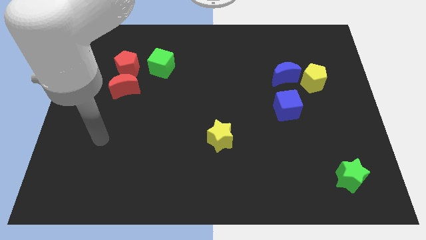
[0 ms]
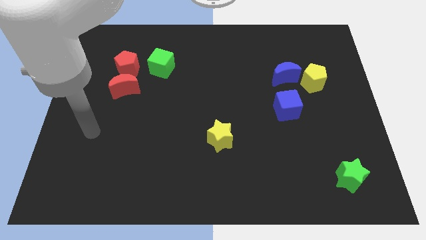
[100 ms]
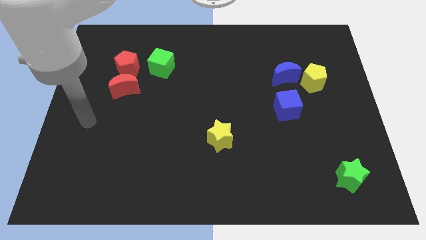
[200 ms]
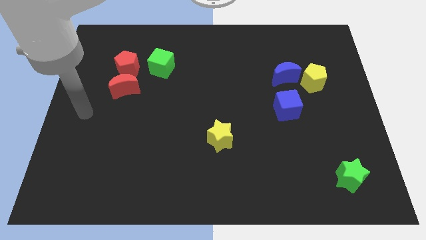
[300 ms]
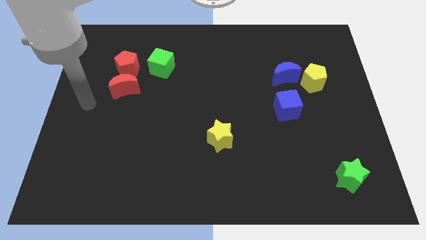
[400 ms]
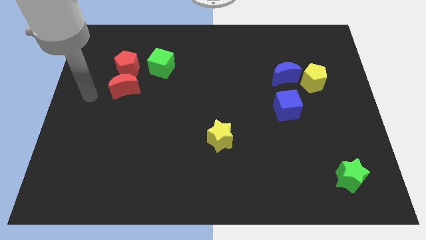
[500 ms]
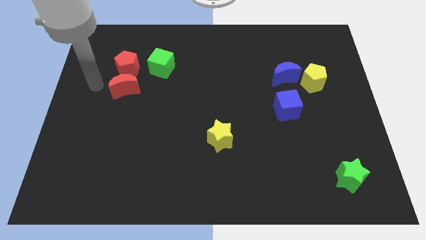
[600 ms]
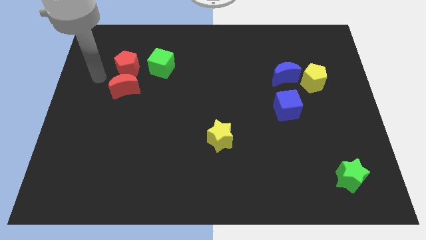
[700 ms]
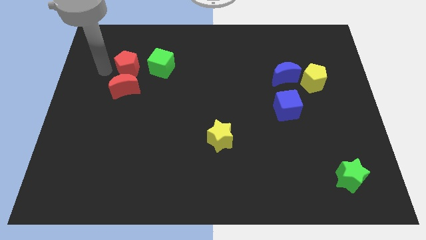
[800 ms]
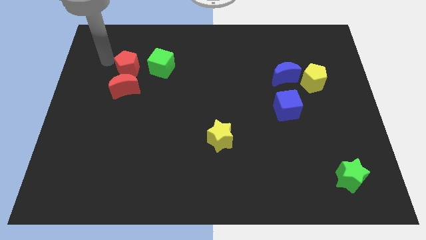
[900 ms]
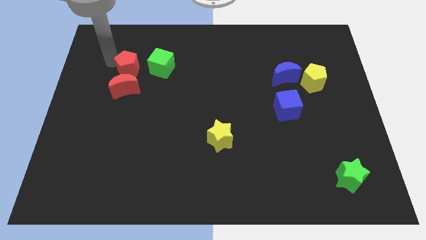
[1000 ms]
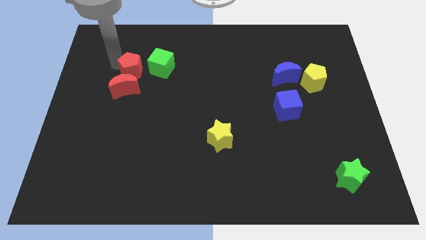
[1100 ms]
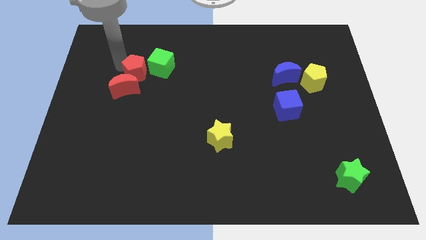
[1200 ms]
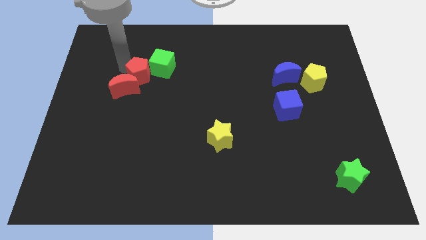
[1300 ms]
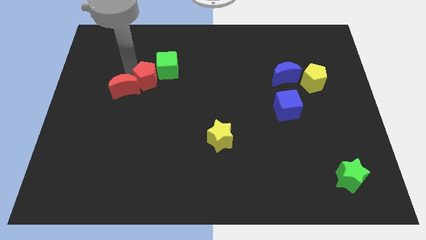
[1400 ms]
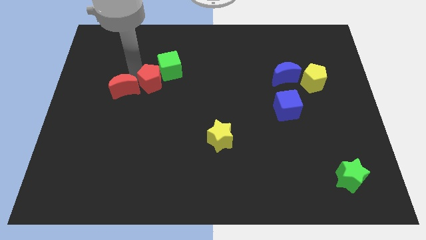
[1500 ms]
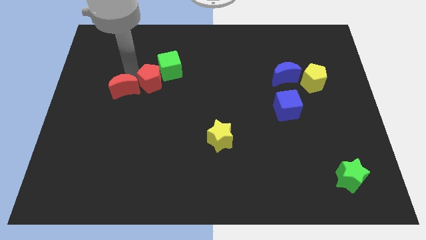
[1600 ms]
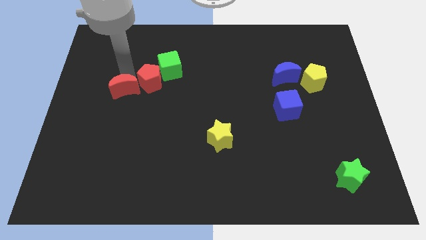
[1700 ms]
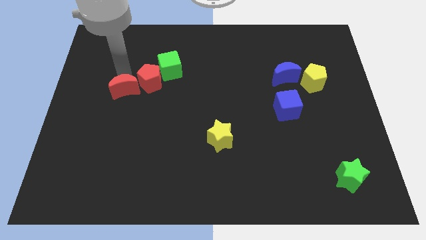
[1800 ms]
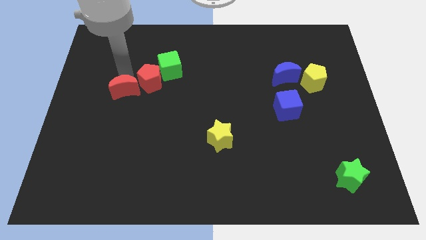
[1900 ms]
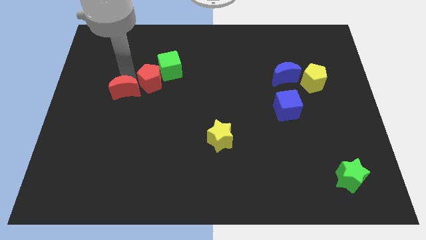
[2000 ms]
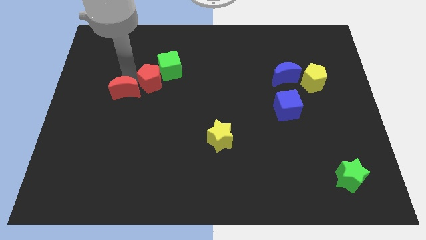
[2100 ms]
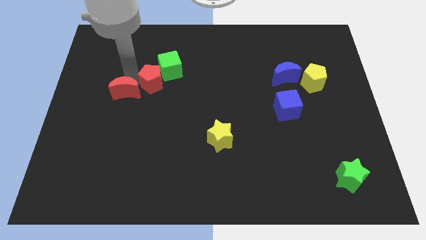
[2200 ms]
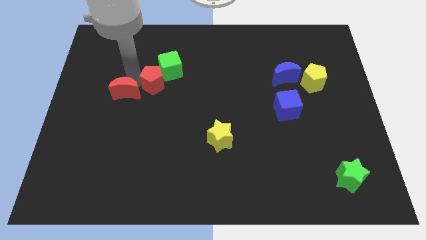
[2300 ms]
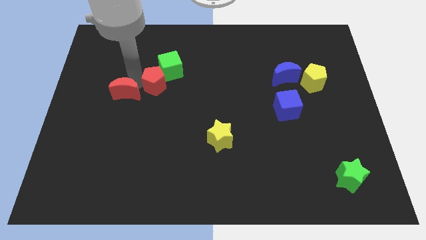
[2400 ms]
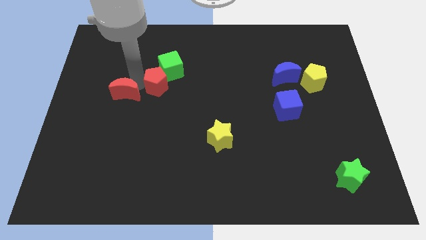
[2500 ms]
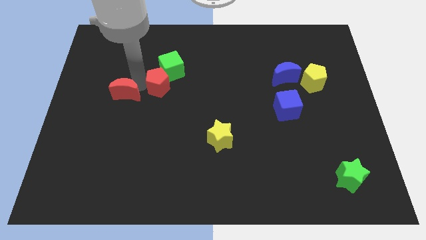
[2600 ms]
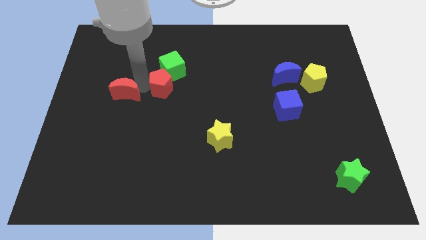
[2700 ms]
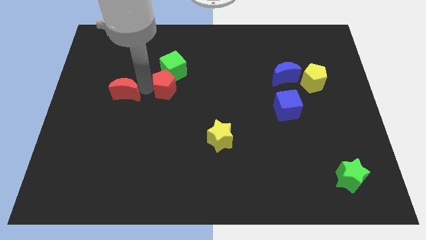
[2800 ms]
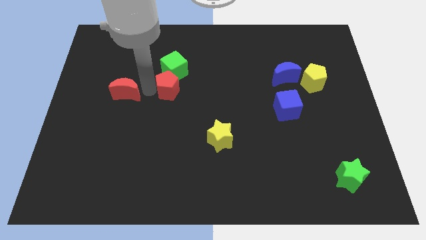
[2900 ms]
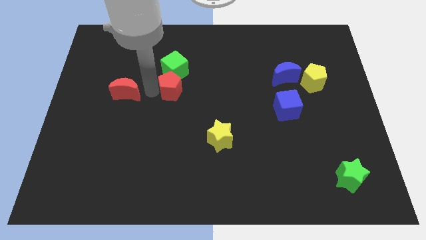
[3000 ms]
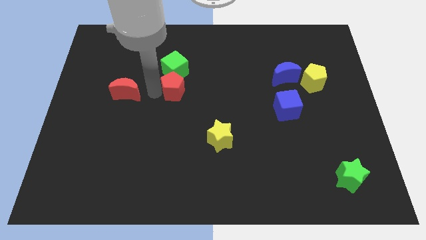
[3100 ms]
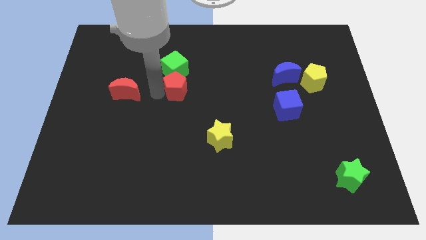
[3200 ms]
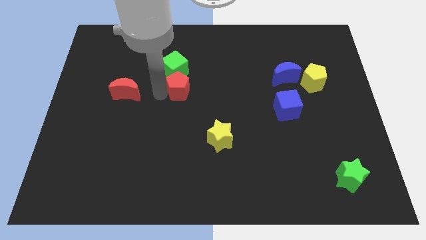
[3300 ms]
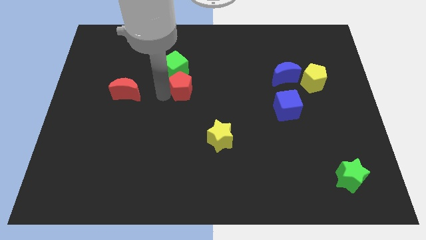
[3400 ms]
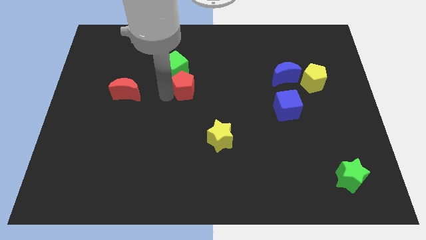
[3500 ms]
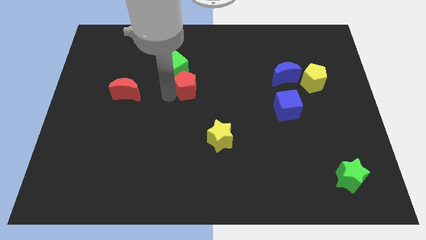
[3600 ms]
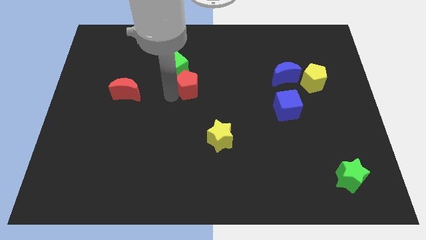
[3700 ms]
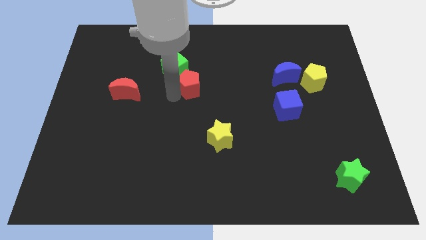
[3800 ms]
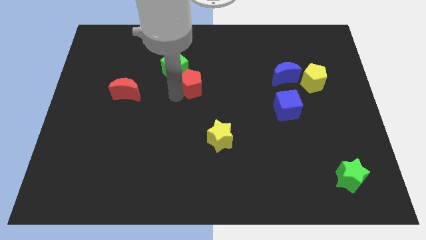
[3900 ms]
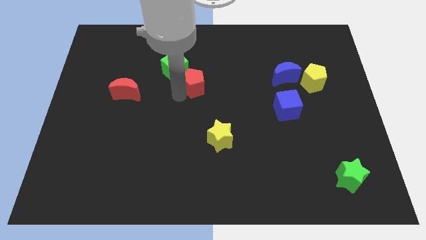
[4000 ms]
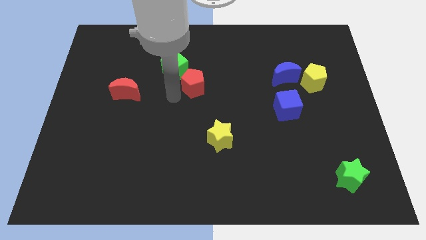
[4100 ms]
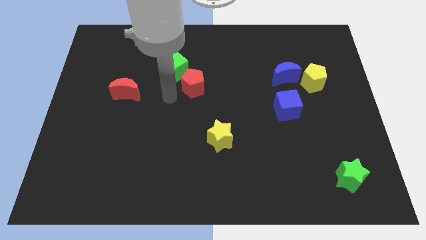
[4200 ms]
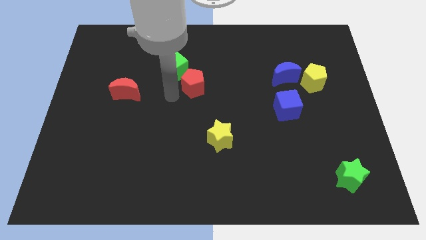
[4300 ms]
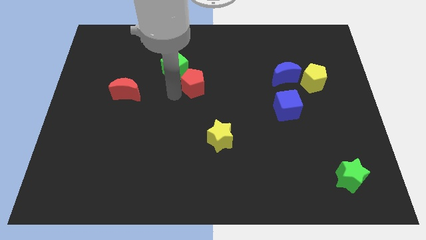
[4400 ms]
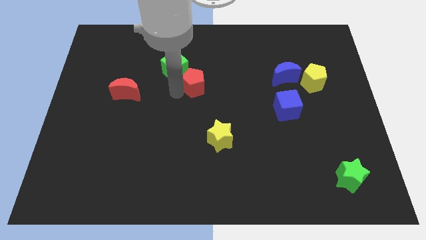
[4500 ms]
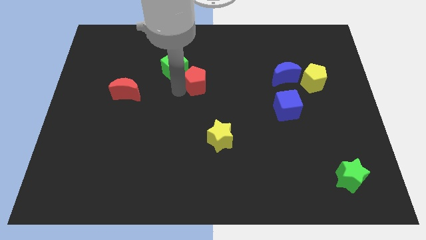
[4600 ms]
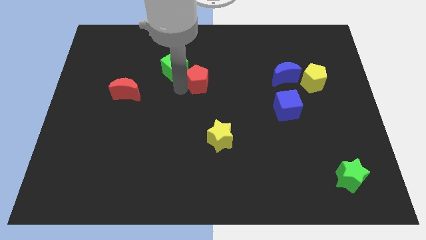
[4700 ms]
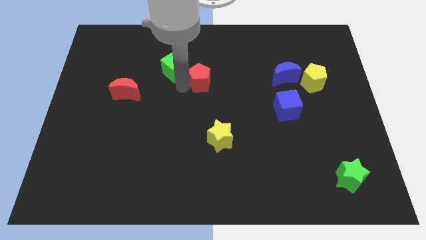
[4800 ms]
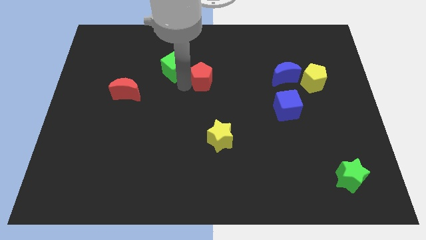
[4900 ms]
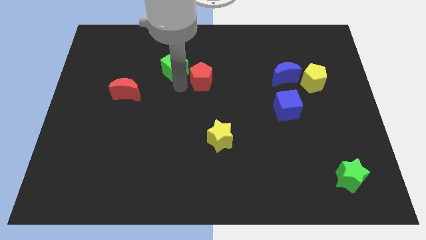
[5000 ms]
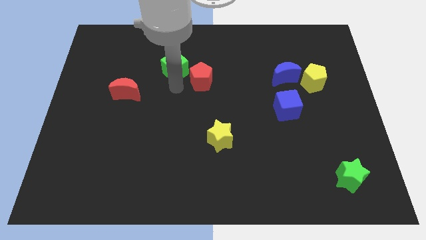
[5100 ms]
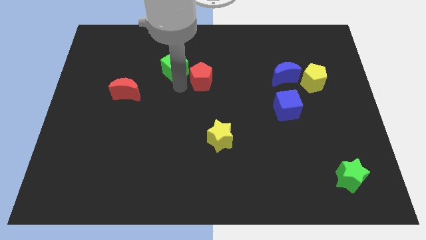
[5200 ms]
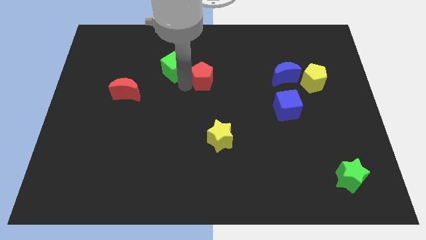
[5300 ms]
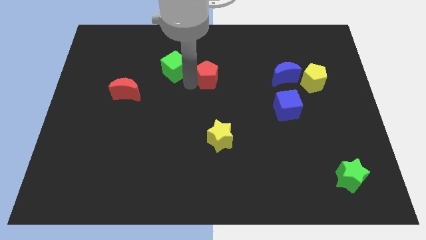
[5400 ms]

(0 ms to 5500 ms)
push the red pentagon right

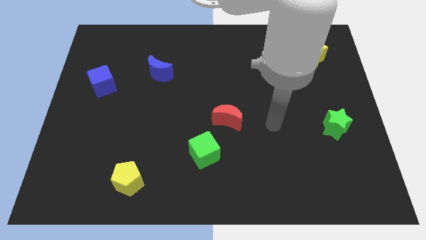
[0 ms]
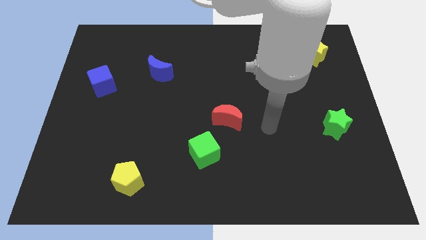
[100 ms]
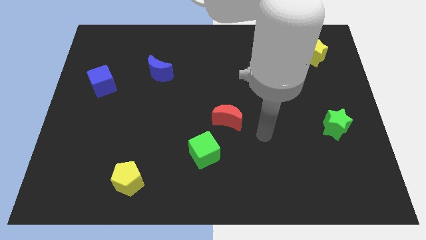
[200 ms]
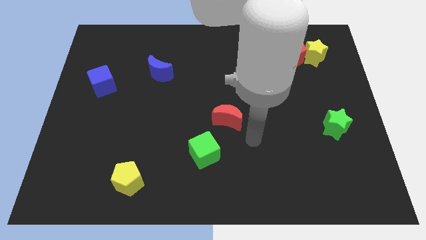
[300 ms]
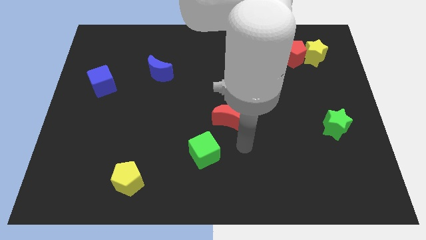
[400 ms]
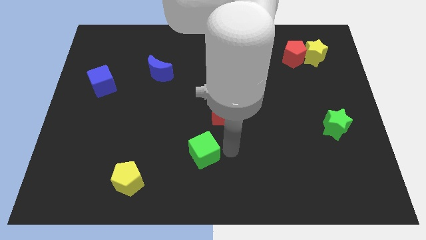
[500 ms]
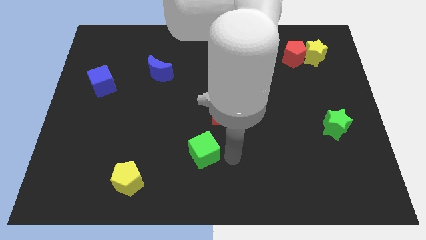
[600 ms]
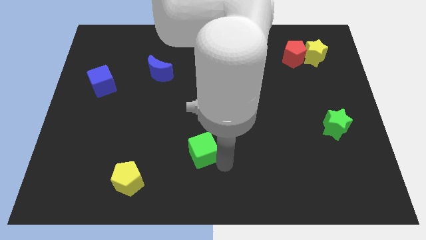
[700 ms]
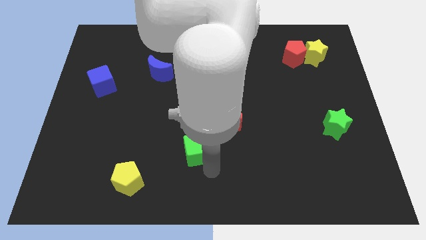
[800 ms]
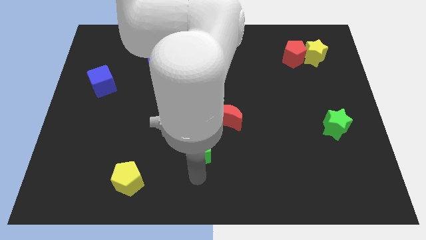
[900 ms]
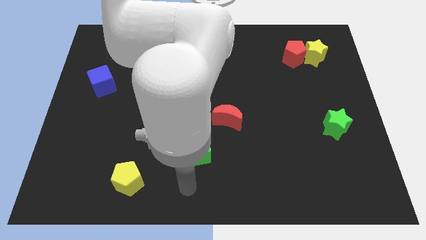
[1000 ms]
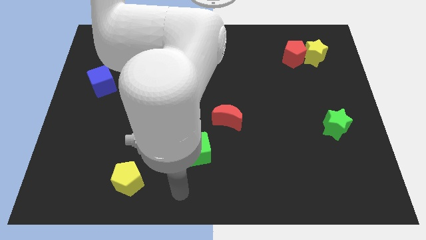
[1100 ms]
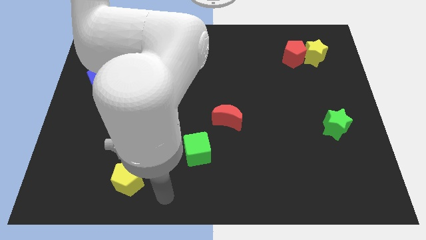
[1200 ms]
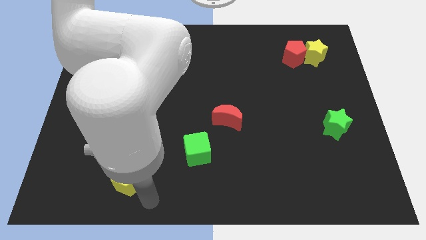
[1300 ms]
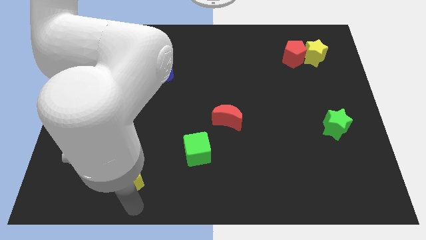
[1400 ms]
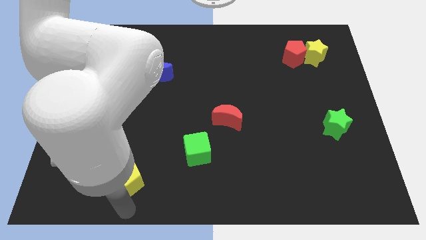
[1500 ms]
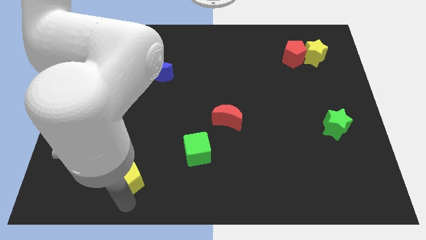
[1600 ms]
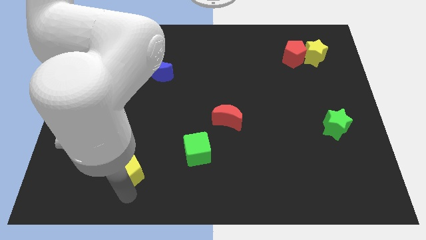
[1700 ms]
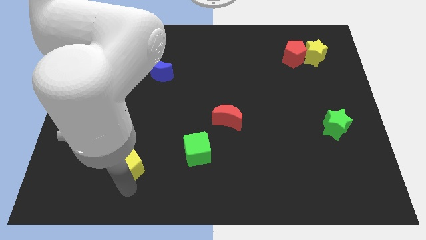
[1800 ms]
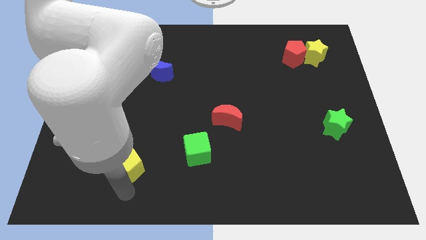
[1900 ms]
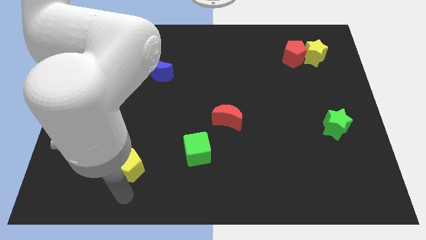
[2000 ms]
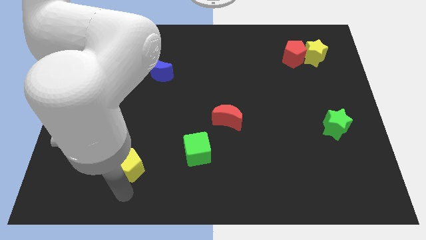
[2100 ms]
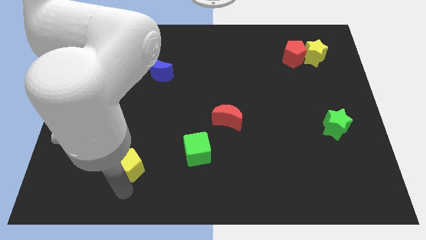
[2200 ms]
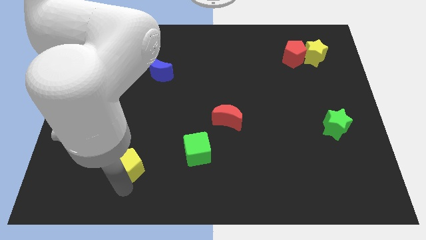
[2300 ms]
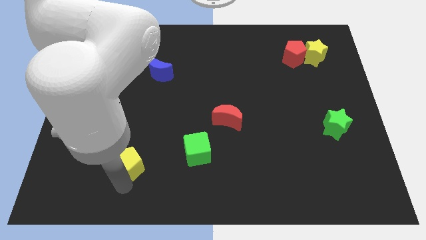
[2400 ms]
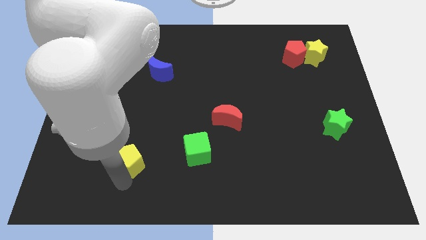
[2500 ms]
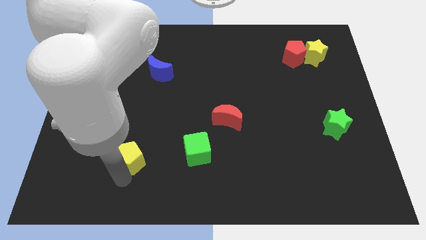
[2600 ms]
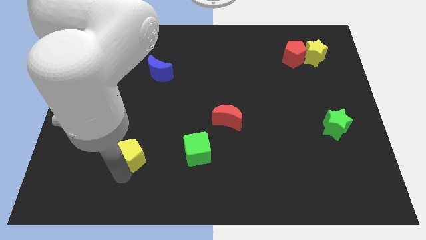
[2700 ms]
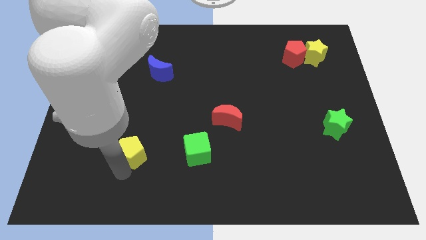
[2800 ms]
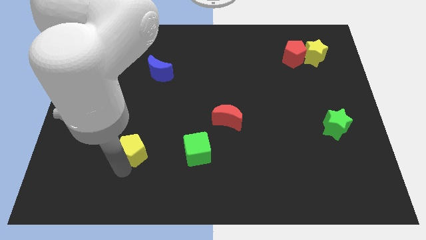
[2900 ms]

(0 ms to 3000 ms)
slightly slide the yellow pentagon upwards
